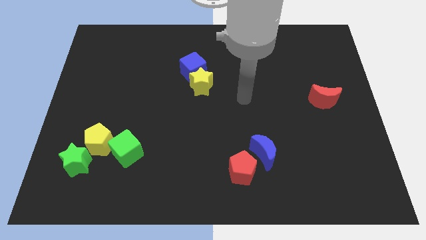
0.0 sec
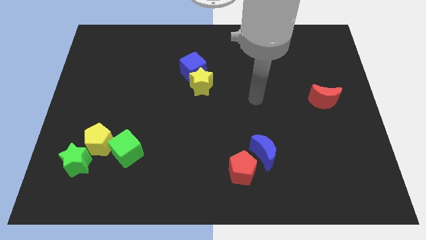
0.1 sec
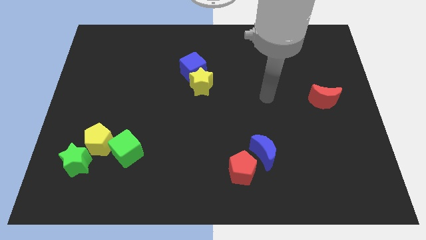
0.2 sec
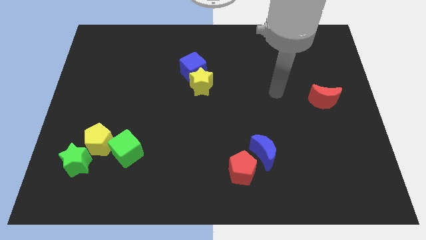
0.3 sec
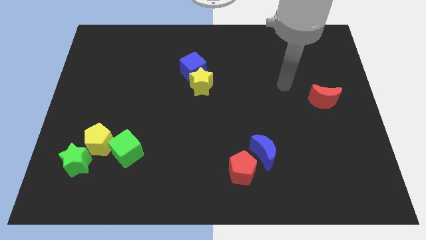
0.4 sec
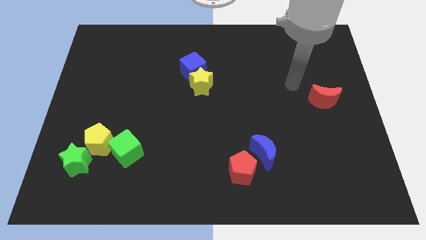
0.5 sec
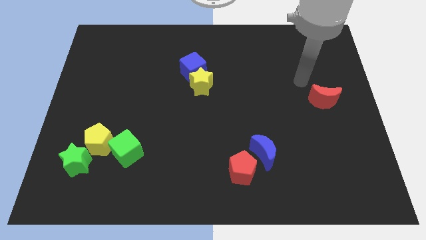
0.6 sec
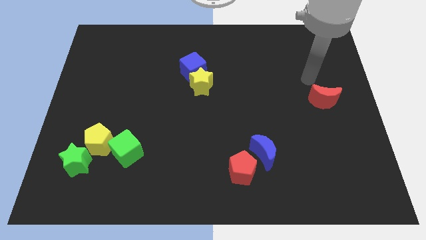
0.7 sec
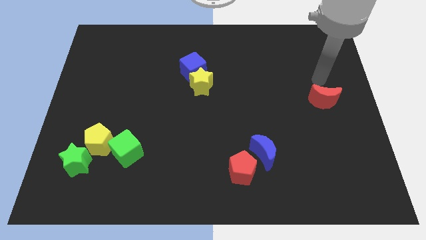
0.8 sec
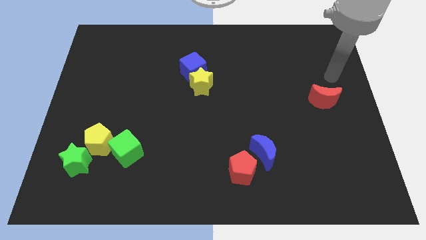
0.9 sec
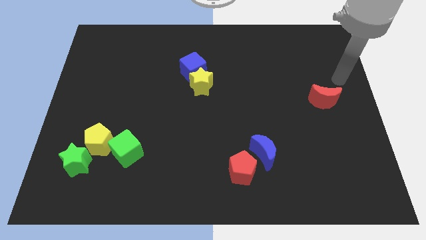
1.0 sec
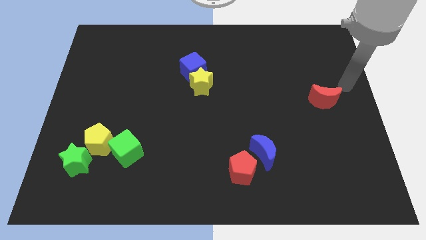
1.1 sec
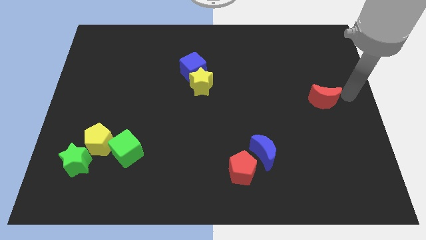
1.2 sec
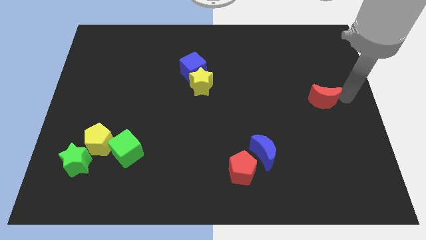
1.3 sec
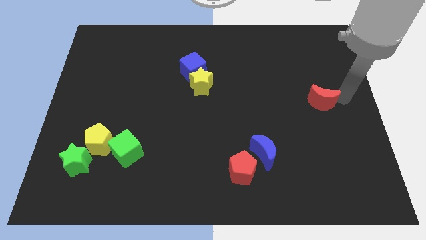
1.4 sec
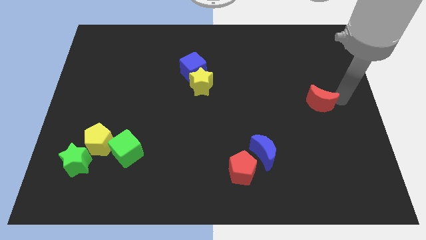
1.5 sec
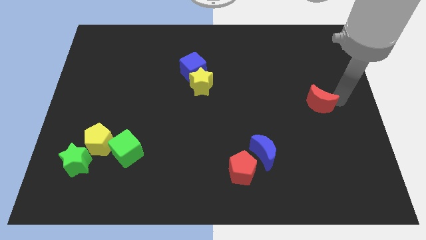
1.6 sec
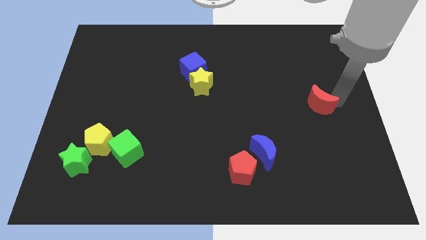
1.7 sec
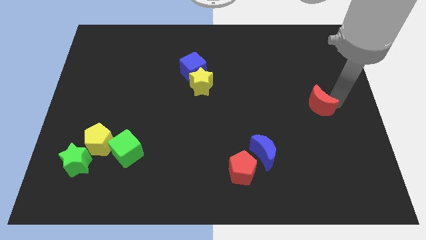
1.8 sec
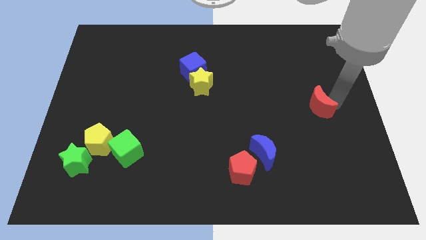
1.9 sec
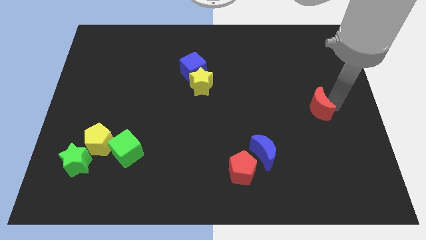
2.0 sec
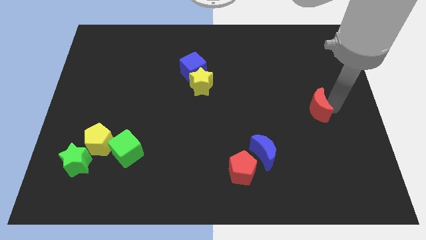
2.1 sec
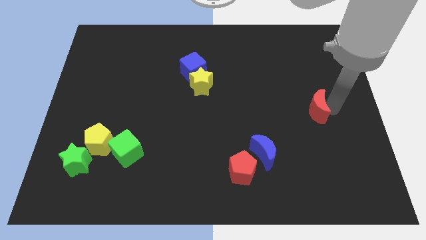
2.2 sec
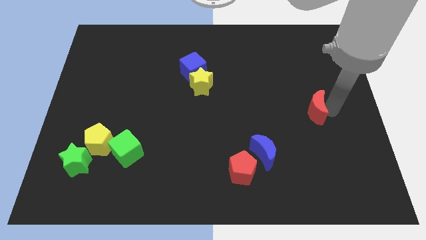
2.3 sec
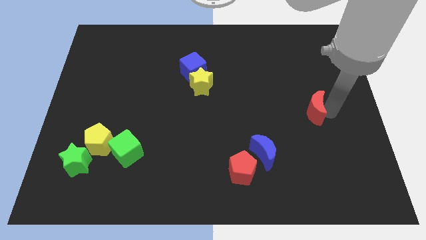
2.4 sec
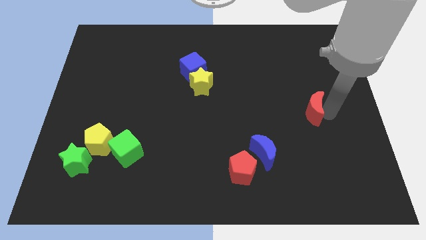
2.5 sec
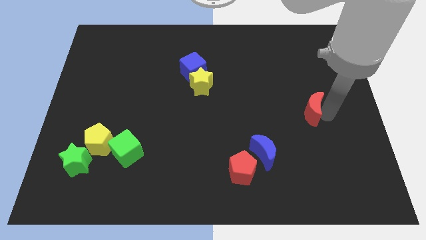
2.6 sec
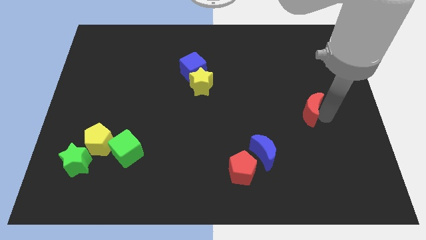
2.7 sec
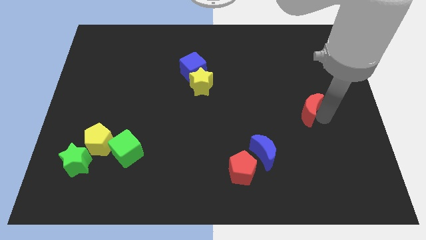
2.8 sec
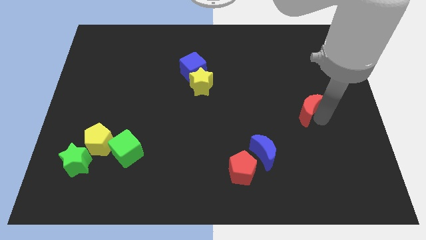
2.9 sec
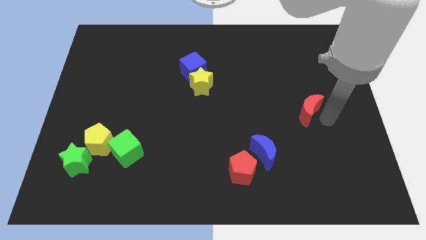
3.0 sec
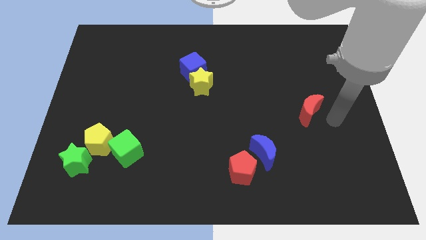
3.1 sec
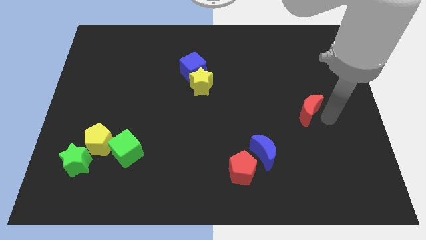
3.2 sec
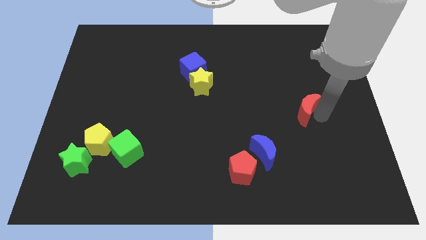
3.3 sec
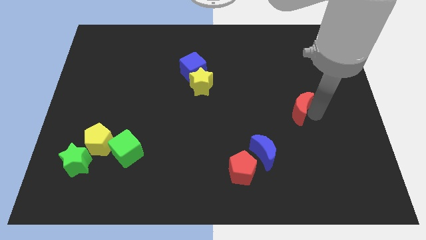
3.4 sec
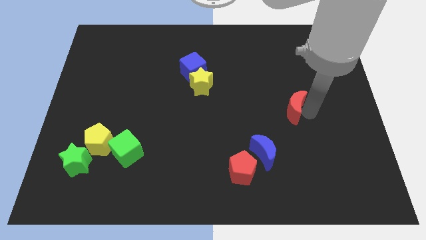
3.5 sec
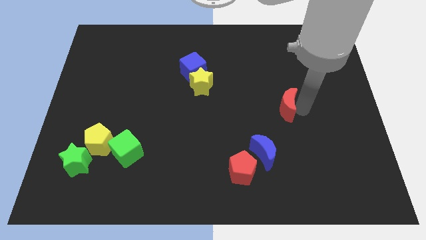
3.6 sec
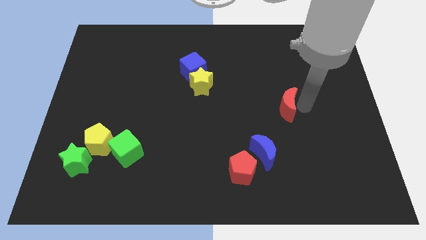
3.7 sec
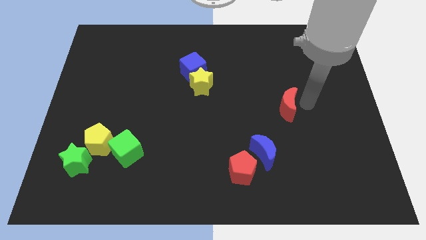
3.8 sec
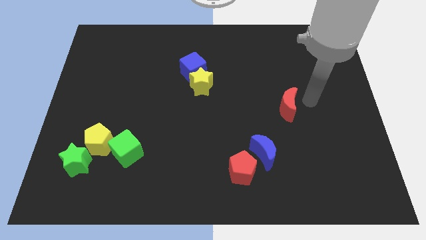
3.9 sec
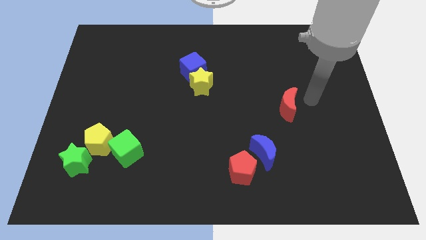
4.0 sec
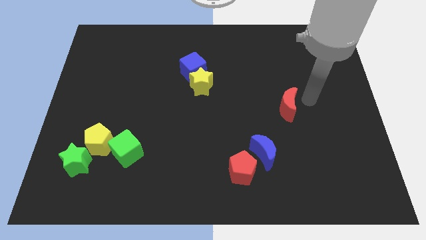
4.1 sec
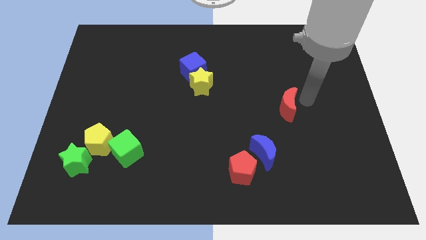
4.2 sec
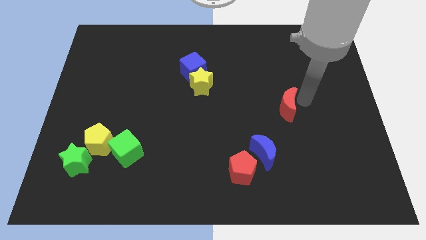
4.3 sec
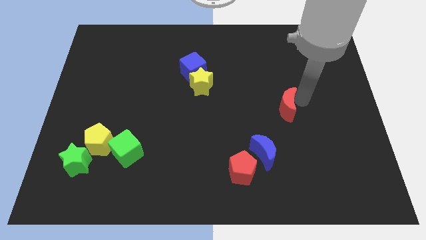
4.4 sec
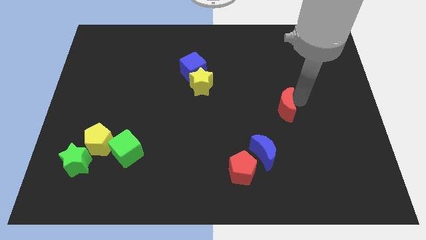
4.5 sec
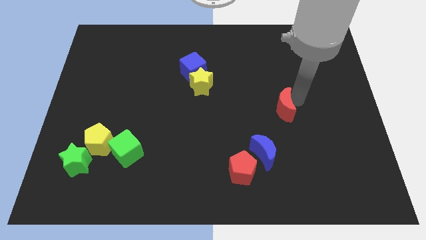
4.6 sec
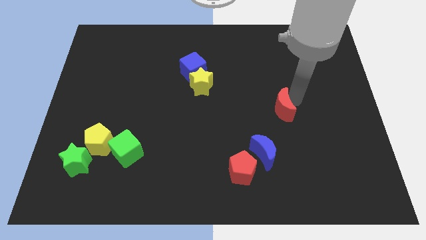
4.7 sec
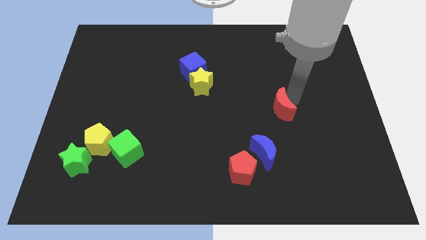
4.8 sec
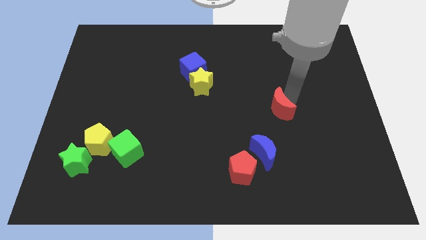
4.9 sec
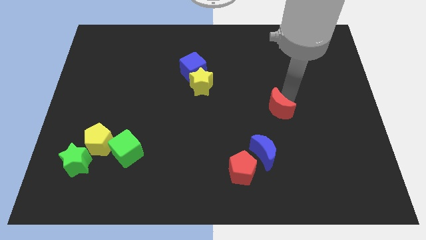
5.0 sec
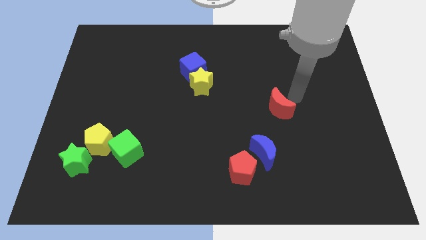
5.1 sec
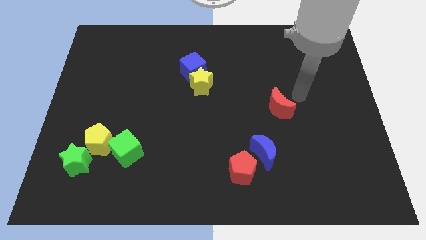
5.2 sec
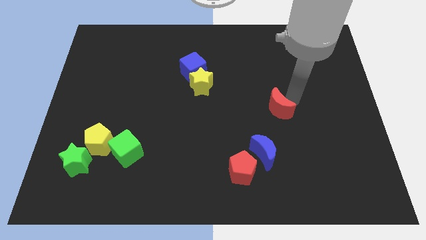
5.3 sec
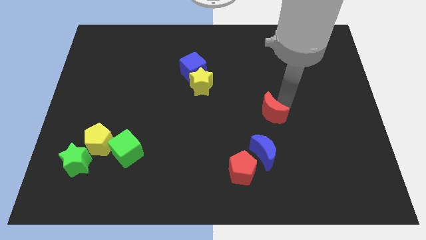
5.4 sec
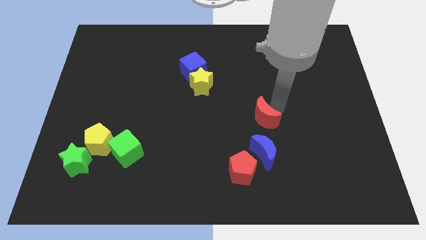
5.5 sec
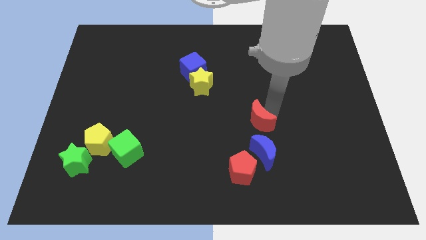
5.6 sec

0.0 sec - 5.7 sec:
push the red moon above the red pentagon
